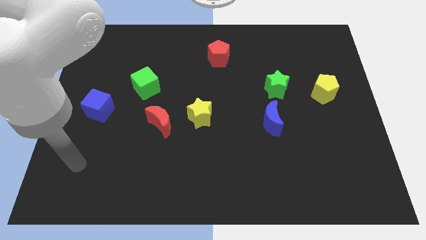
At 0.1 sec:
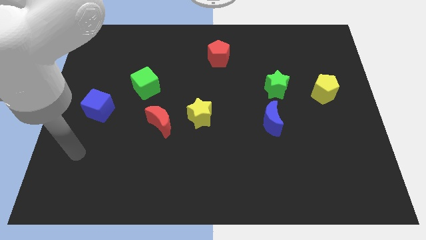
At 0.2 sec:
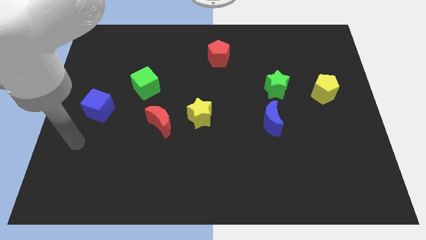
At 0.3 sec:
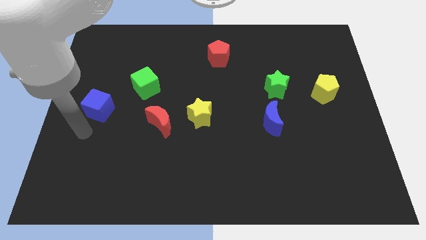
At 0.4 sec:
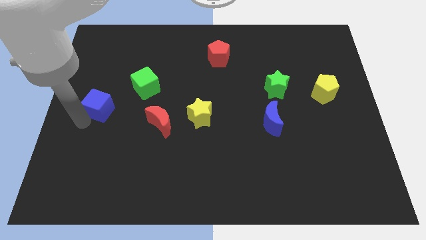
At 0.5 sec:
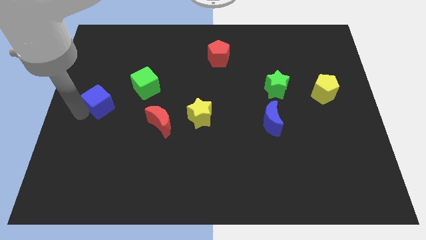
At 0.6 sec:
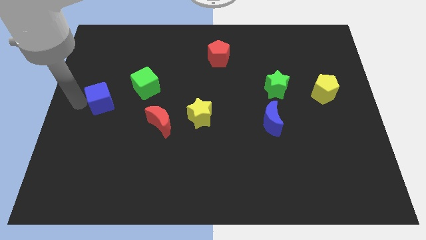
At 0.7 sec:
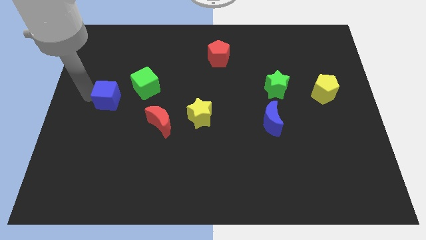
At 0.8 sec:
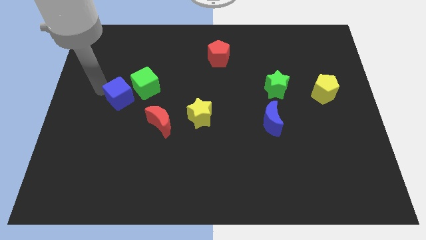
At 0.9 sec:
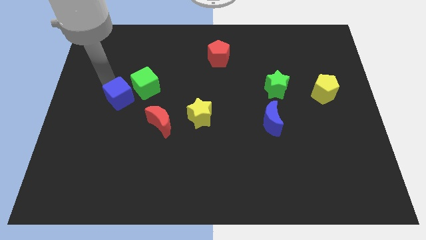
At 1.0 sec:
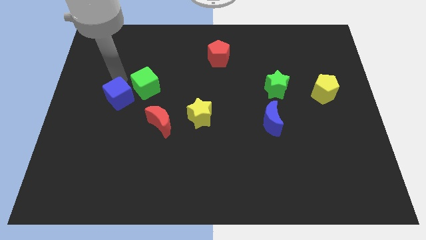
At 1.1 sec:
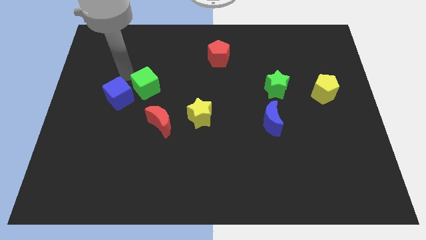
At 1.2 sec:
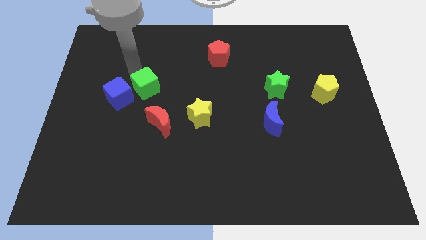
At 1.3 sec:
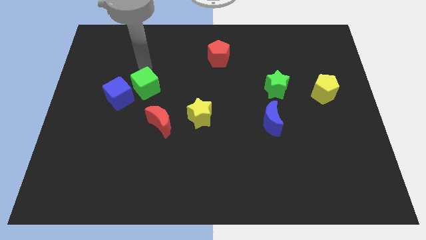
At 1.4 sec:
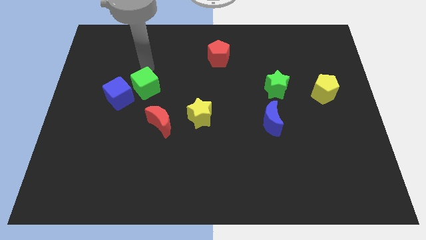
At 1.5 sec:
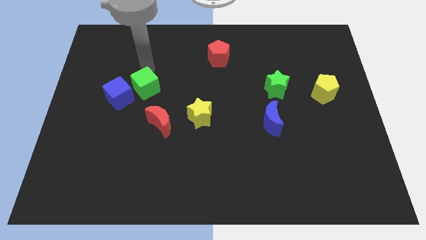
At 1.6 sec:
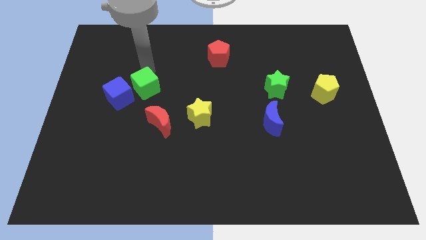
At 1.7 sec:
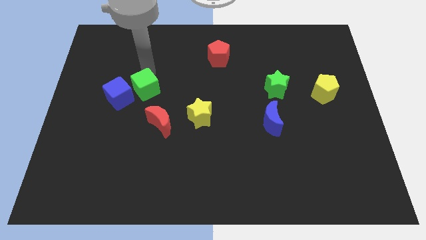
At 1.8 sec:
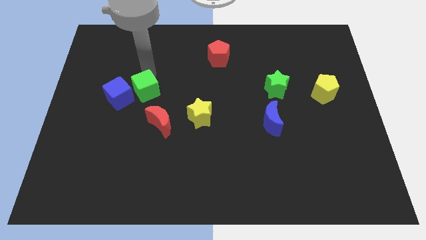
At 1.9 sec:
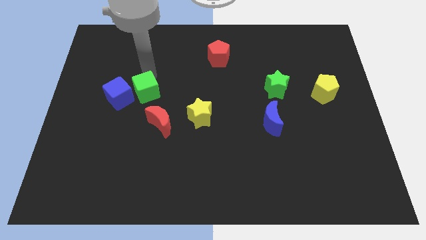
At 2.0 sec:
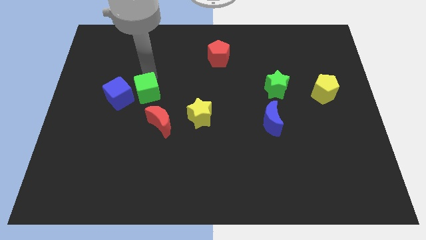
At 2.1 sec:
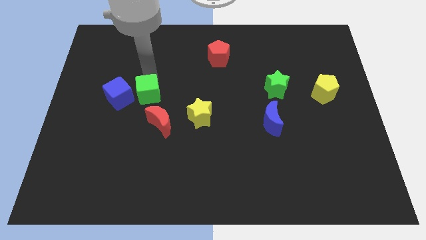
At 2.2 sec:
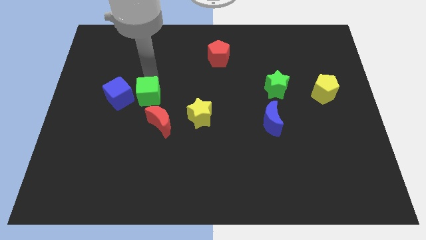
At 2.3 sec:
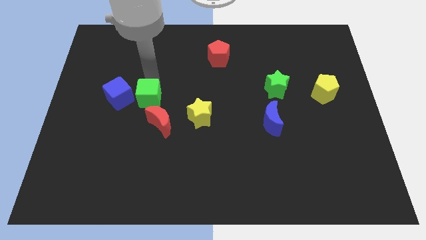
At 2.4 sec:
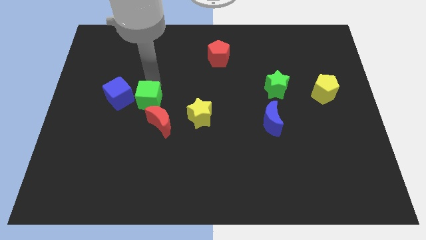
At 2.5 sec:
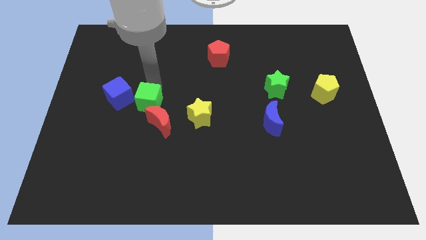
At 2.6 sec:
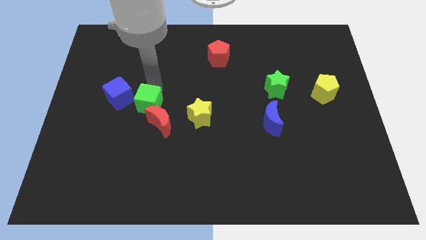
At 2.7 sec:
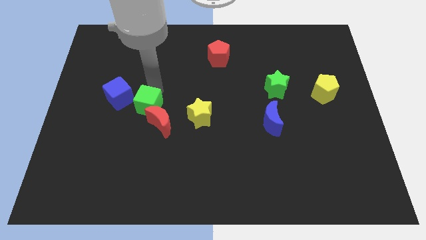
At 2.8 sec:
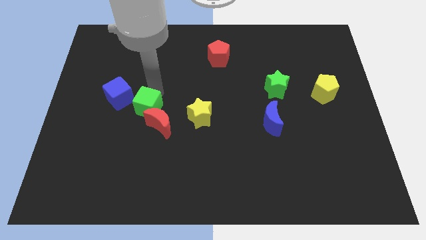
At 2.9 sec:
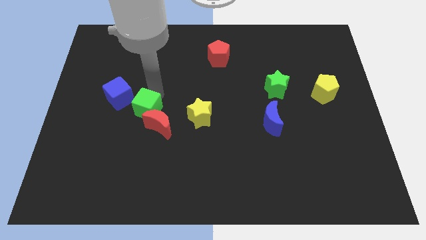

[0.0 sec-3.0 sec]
slightly slide the green cube downwards

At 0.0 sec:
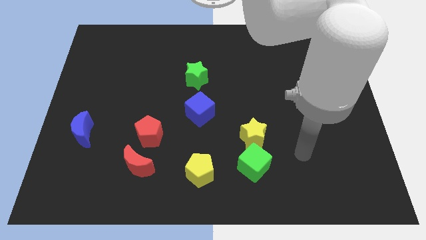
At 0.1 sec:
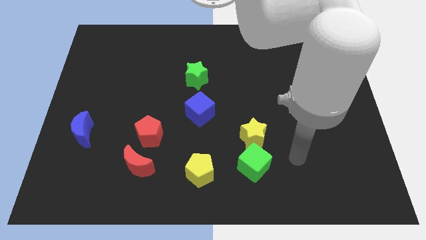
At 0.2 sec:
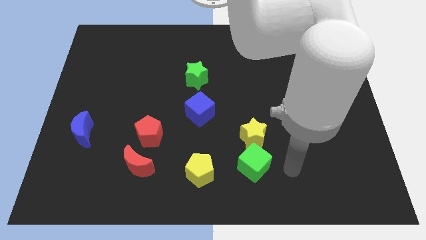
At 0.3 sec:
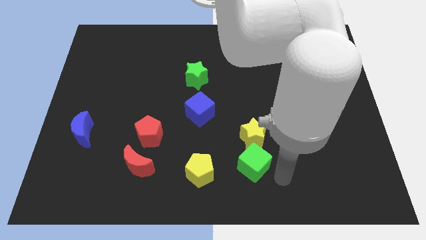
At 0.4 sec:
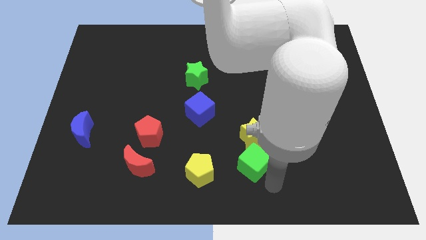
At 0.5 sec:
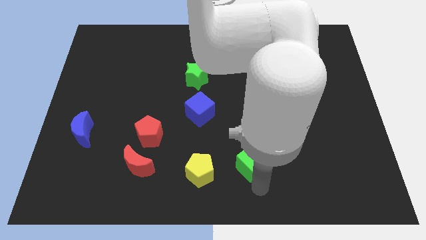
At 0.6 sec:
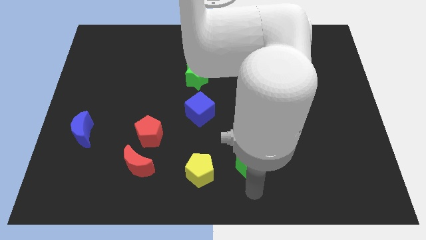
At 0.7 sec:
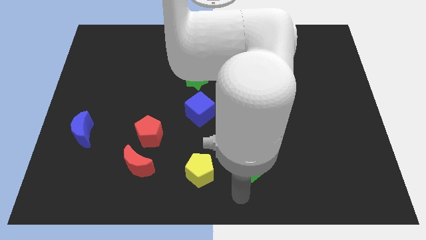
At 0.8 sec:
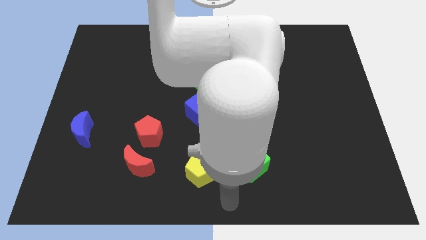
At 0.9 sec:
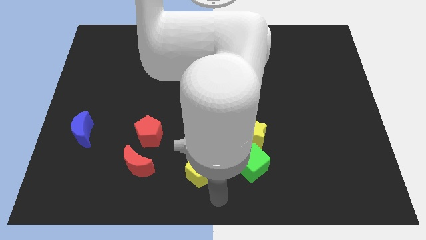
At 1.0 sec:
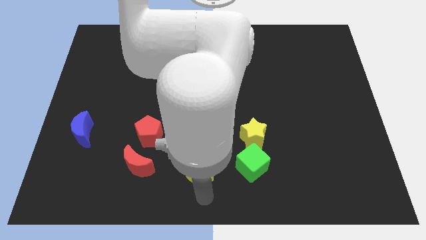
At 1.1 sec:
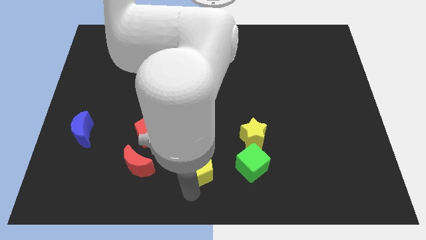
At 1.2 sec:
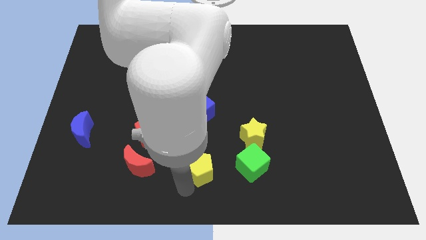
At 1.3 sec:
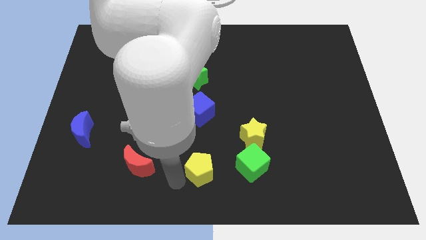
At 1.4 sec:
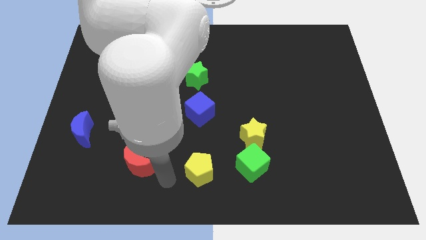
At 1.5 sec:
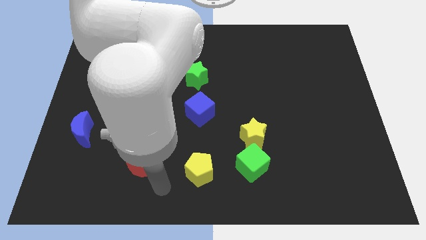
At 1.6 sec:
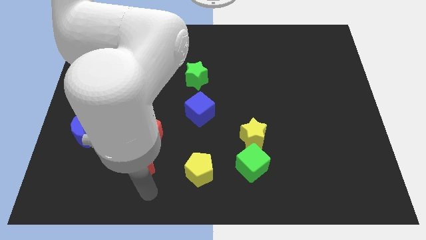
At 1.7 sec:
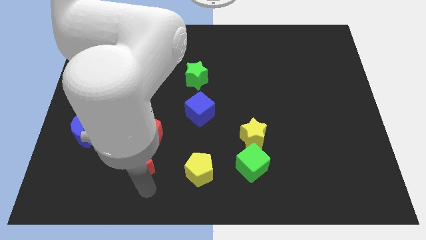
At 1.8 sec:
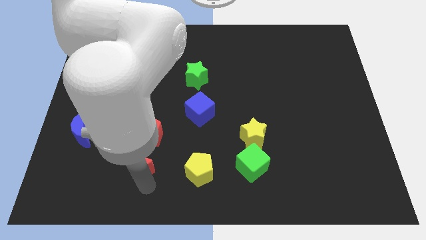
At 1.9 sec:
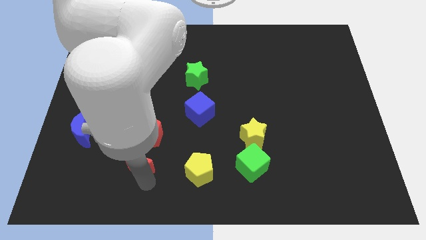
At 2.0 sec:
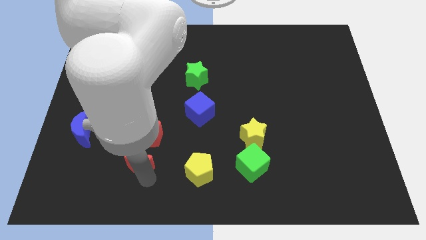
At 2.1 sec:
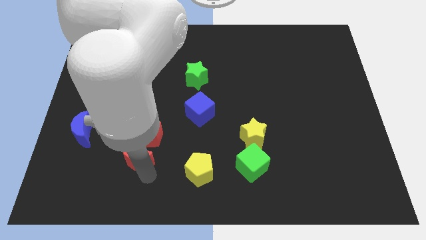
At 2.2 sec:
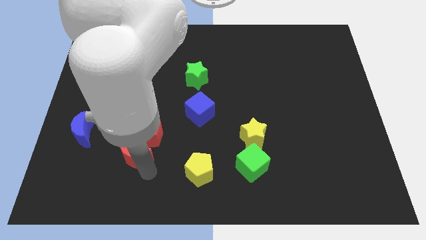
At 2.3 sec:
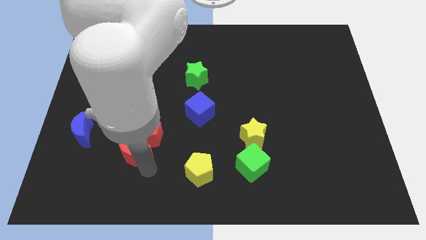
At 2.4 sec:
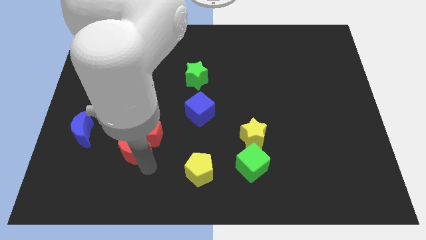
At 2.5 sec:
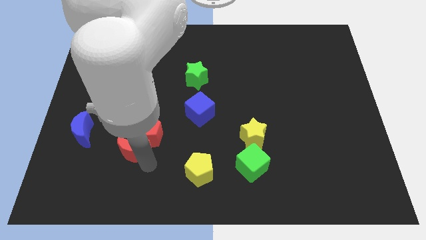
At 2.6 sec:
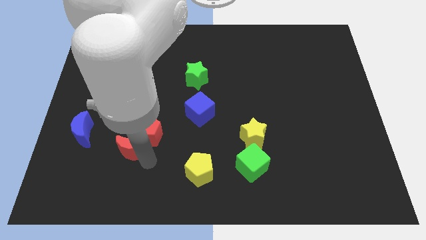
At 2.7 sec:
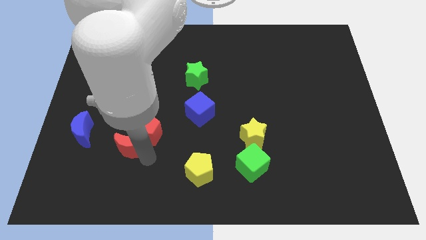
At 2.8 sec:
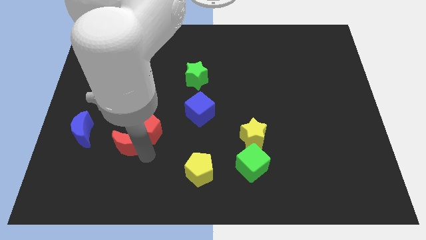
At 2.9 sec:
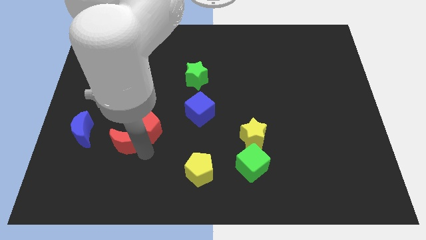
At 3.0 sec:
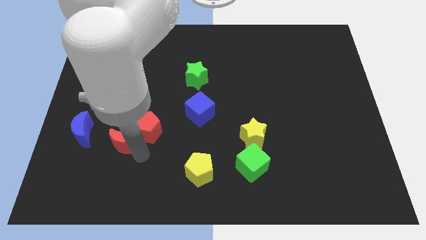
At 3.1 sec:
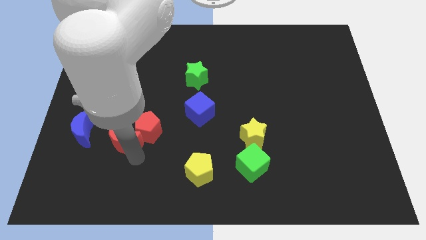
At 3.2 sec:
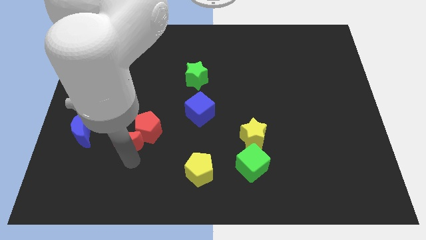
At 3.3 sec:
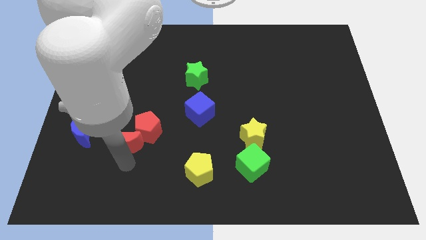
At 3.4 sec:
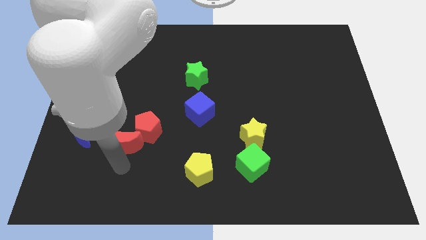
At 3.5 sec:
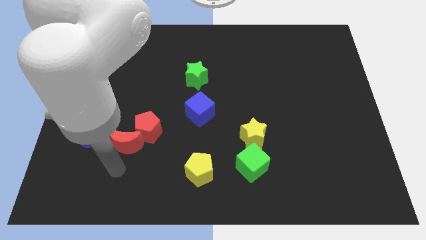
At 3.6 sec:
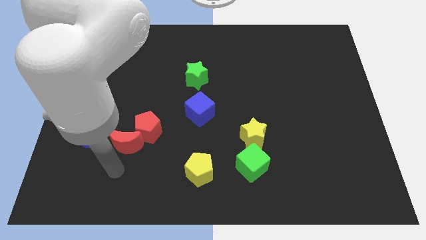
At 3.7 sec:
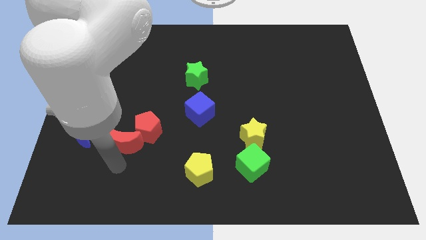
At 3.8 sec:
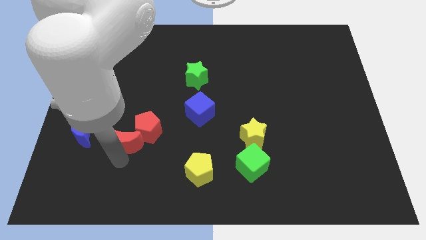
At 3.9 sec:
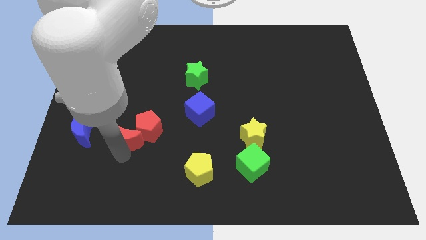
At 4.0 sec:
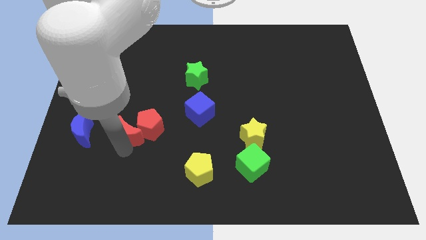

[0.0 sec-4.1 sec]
move the red moon upwards a little

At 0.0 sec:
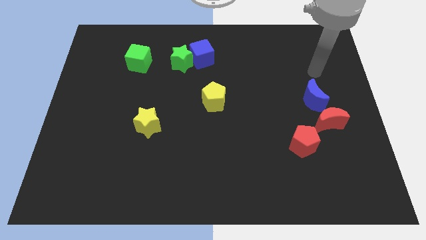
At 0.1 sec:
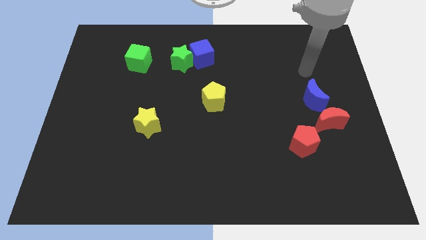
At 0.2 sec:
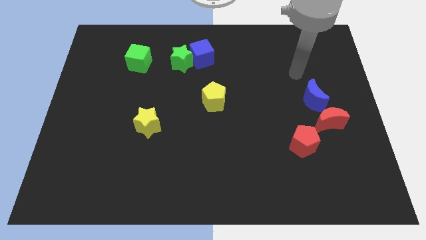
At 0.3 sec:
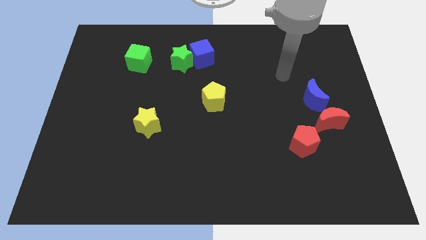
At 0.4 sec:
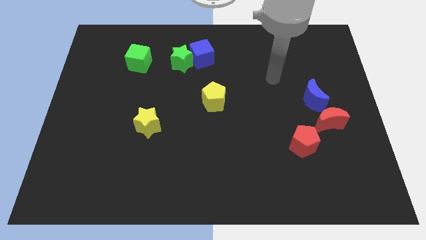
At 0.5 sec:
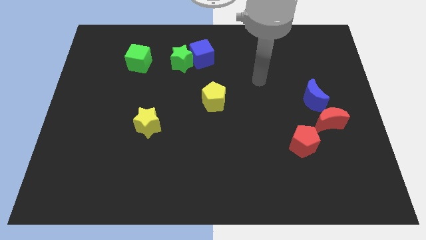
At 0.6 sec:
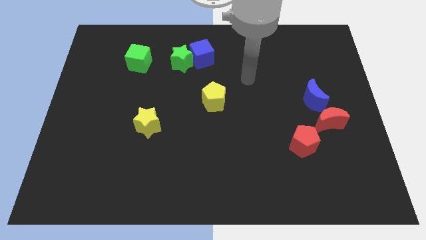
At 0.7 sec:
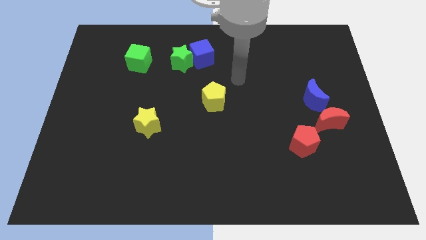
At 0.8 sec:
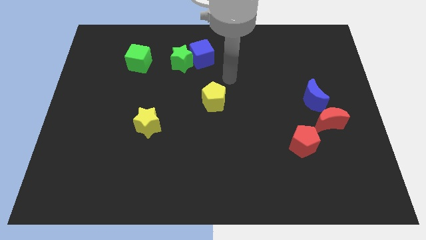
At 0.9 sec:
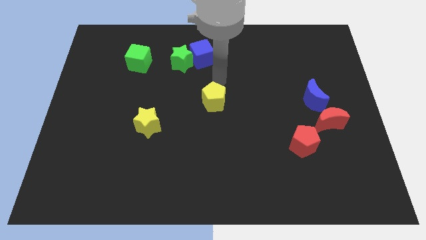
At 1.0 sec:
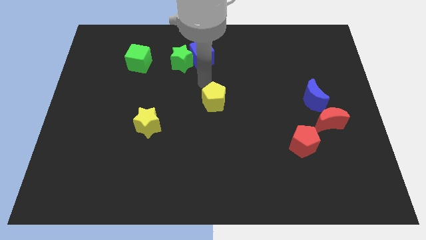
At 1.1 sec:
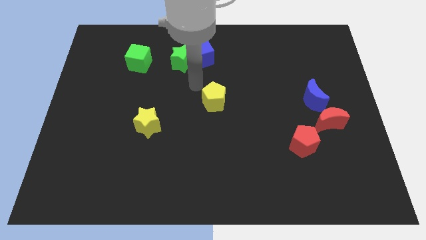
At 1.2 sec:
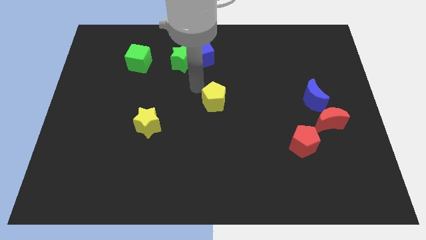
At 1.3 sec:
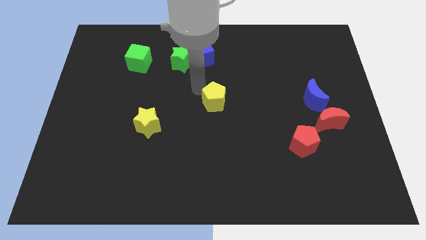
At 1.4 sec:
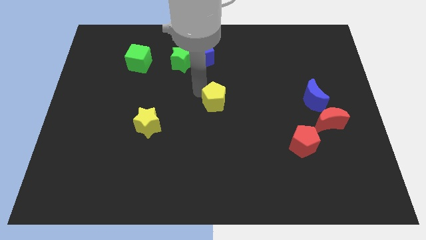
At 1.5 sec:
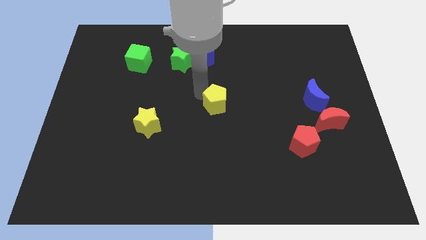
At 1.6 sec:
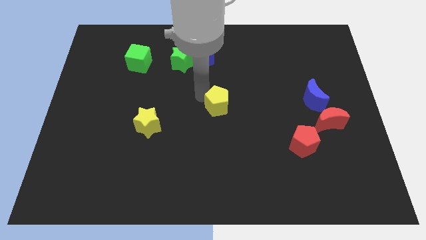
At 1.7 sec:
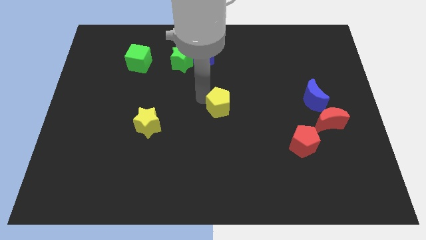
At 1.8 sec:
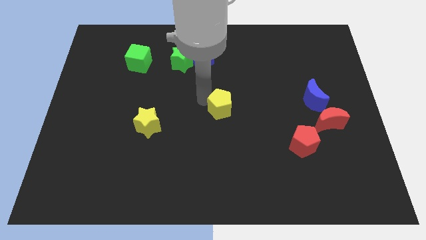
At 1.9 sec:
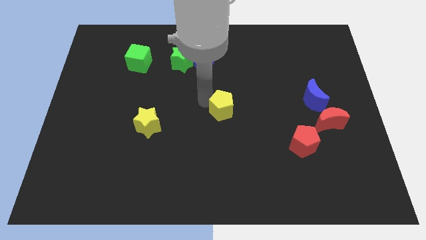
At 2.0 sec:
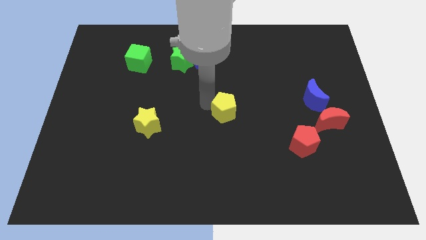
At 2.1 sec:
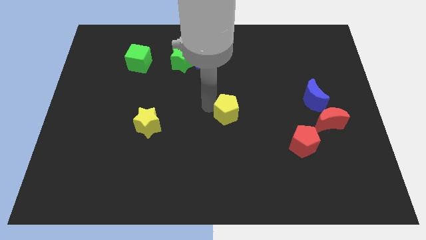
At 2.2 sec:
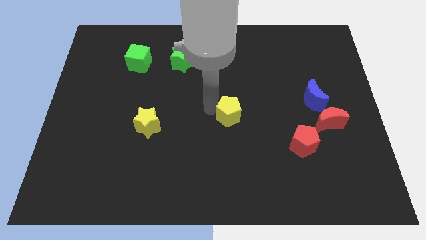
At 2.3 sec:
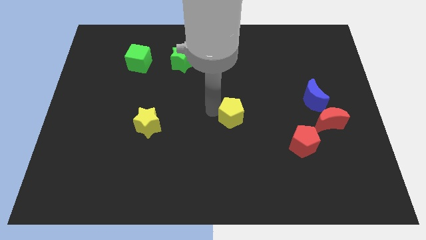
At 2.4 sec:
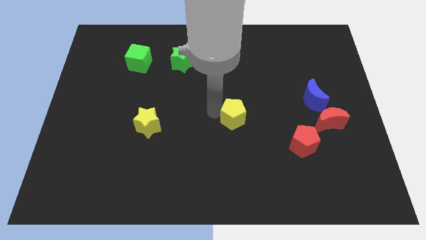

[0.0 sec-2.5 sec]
slide the yellow pentagon slightly diagonally downwards and right
